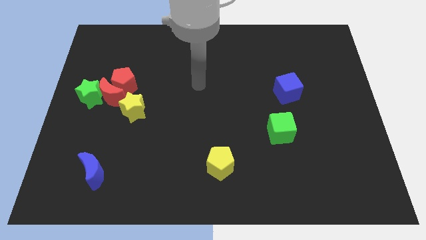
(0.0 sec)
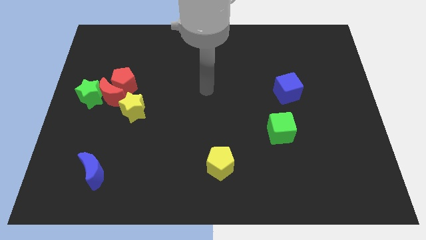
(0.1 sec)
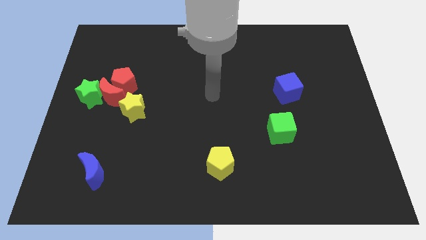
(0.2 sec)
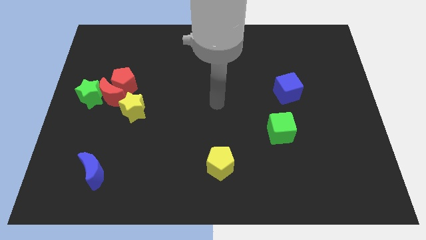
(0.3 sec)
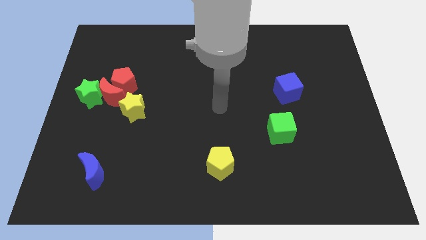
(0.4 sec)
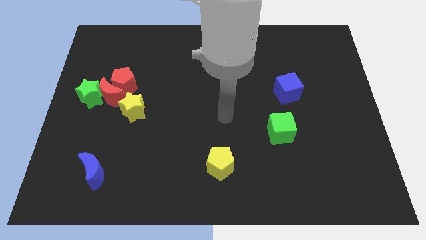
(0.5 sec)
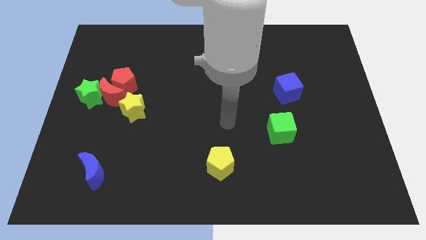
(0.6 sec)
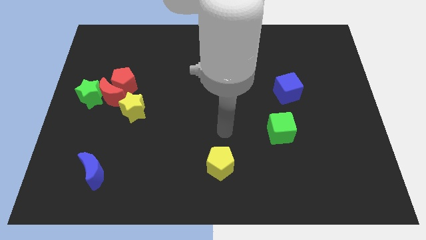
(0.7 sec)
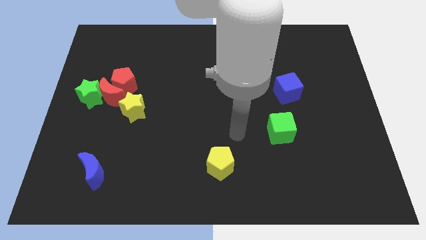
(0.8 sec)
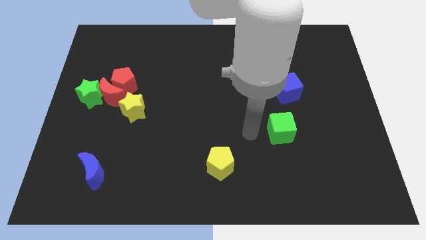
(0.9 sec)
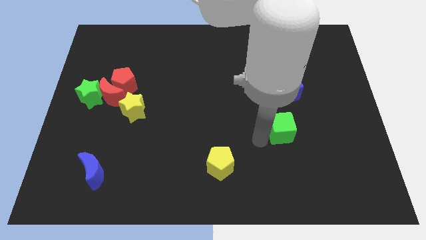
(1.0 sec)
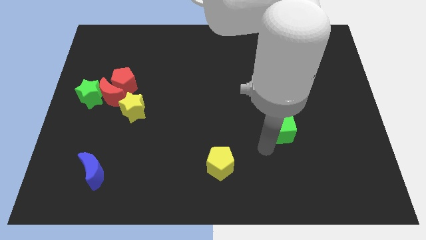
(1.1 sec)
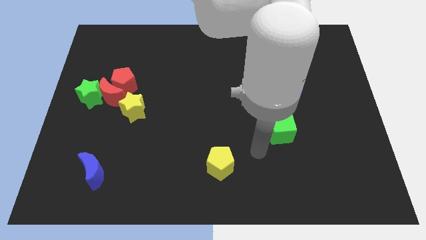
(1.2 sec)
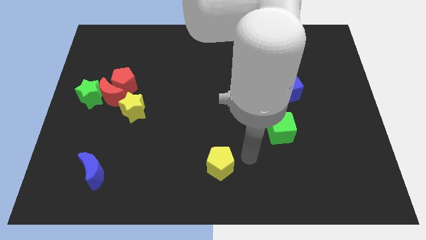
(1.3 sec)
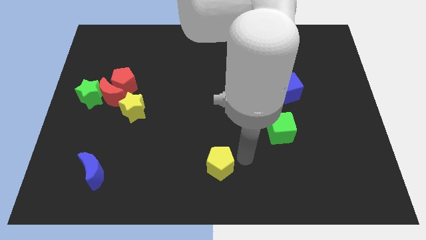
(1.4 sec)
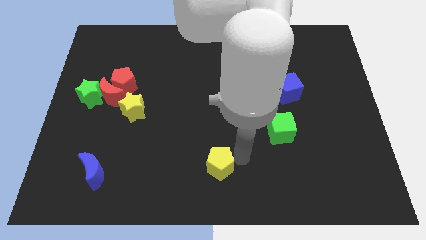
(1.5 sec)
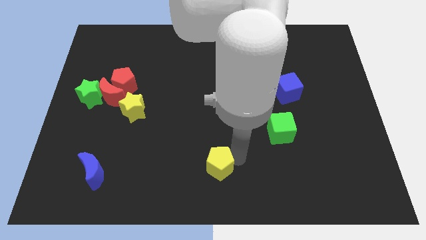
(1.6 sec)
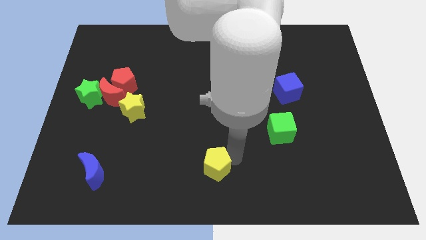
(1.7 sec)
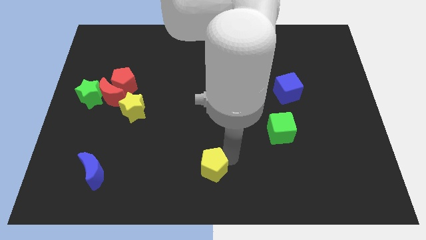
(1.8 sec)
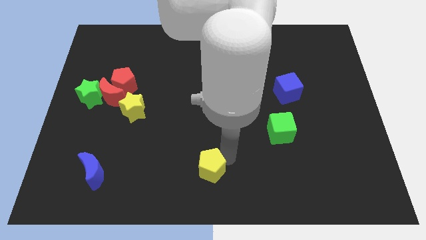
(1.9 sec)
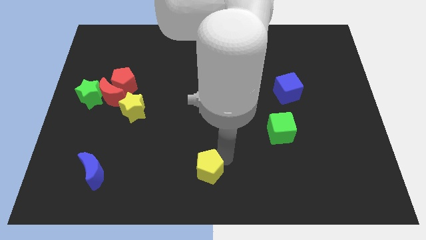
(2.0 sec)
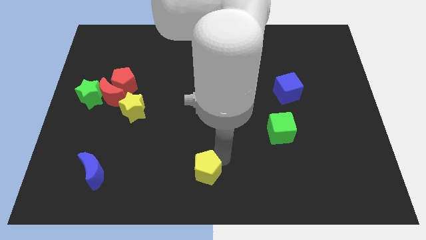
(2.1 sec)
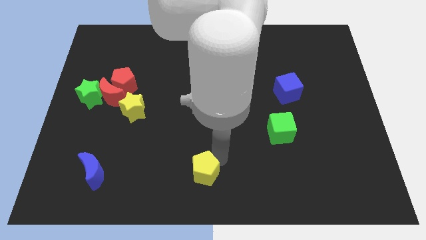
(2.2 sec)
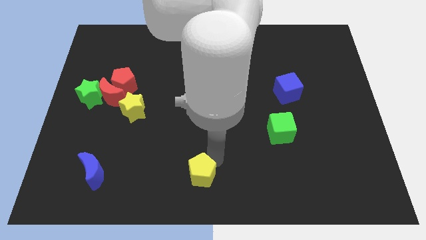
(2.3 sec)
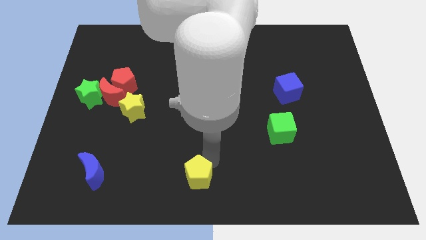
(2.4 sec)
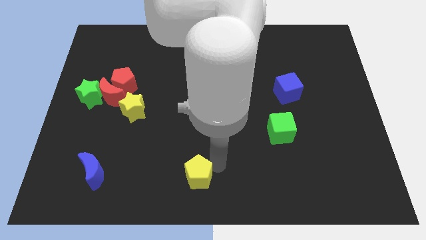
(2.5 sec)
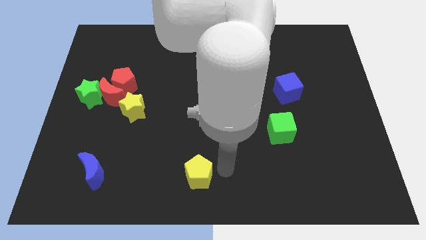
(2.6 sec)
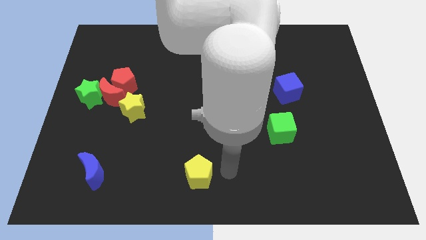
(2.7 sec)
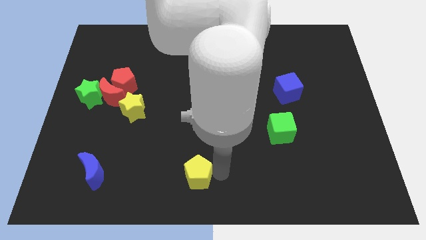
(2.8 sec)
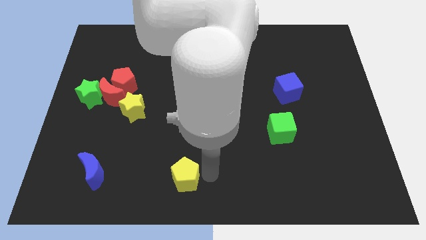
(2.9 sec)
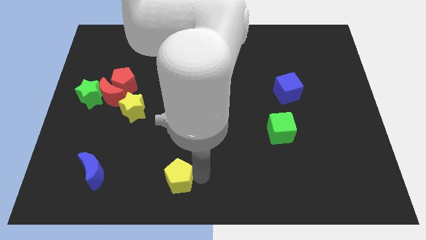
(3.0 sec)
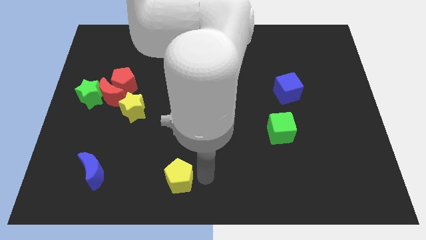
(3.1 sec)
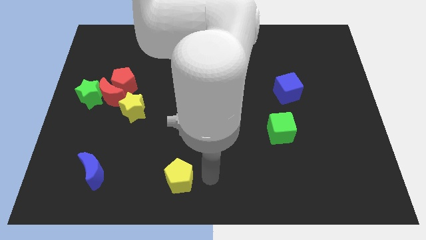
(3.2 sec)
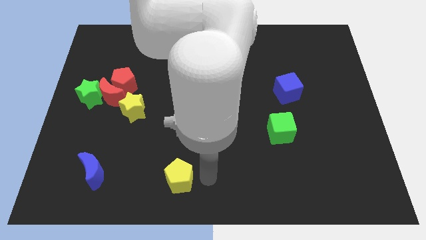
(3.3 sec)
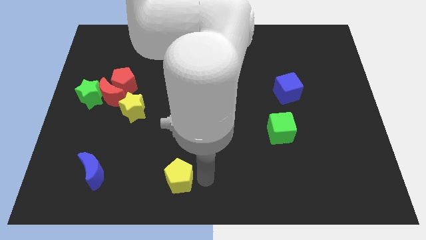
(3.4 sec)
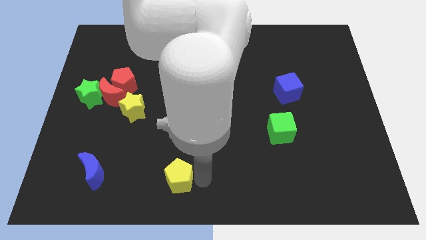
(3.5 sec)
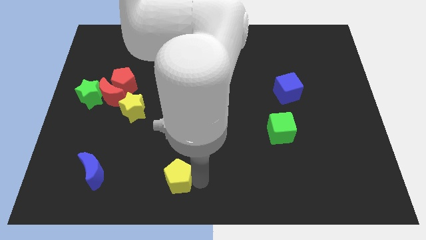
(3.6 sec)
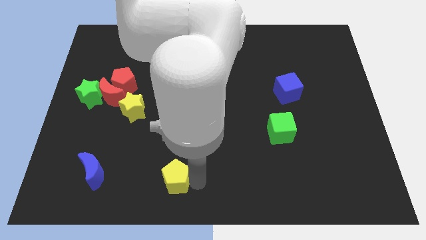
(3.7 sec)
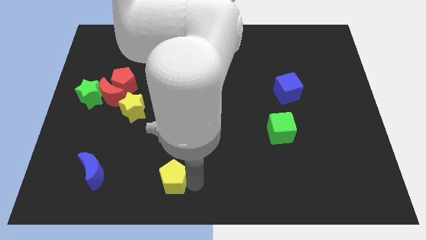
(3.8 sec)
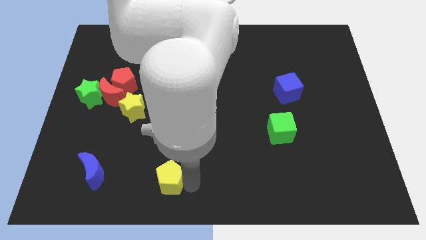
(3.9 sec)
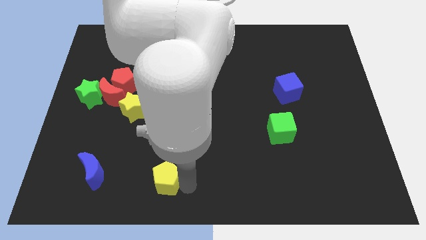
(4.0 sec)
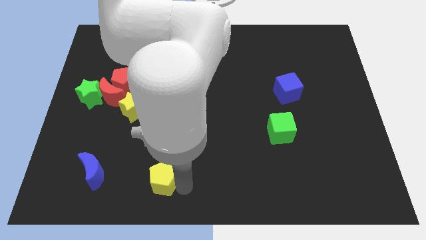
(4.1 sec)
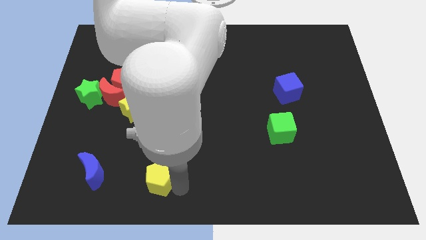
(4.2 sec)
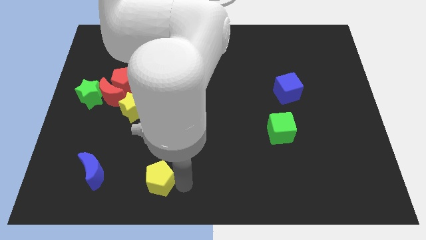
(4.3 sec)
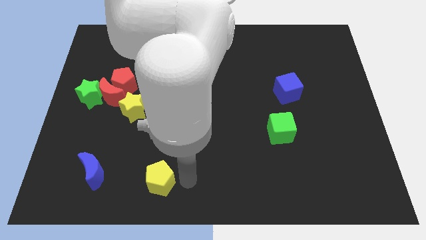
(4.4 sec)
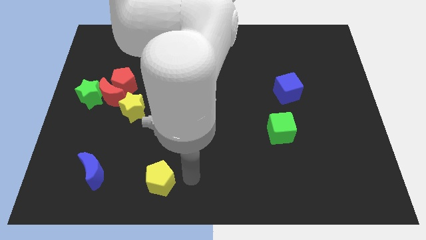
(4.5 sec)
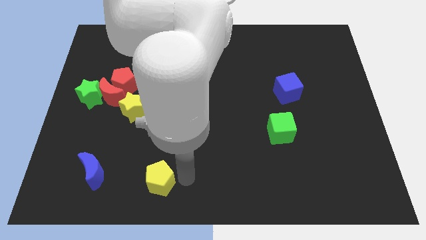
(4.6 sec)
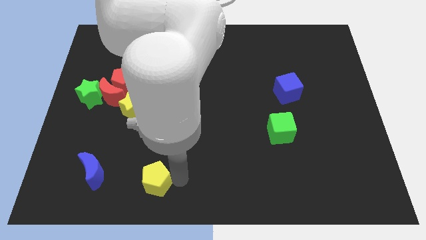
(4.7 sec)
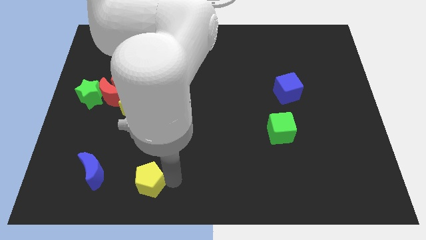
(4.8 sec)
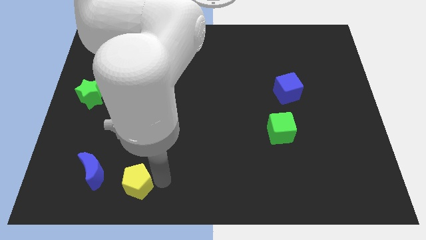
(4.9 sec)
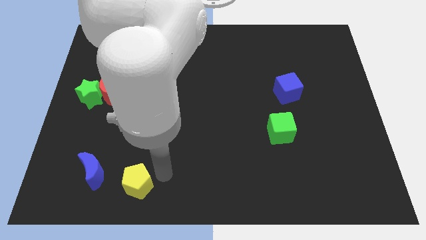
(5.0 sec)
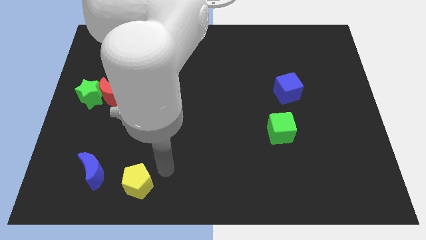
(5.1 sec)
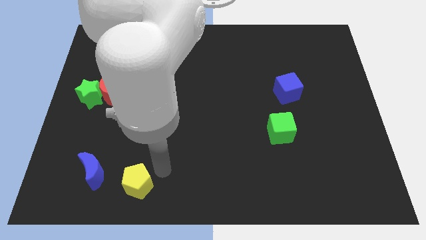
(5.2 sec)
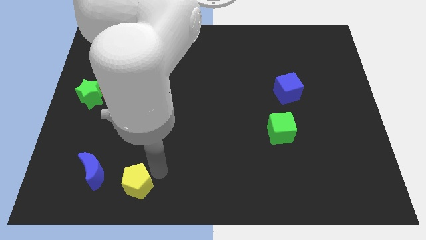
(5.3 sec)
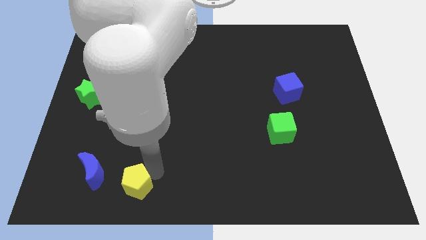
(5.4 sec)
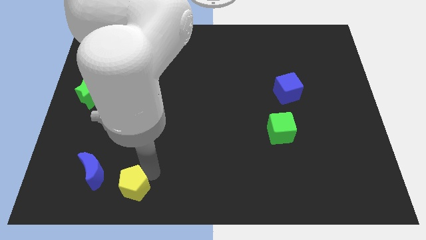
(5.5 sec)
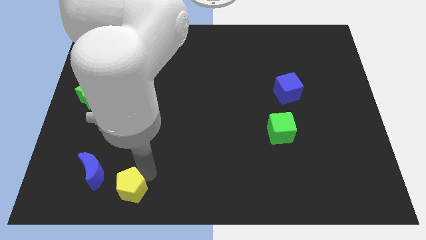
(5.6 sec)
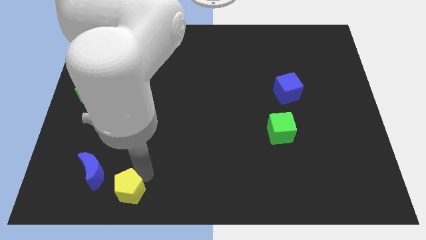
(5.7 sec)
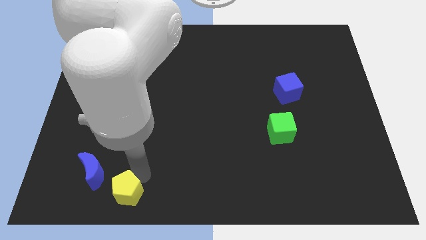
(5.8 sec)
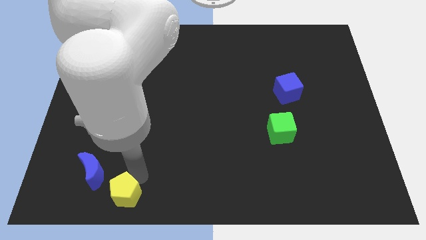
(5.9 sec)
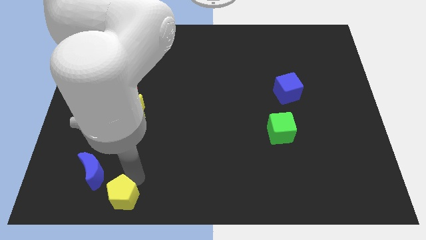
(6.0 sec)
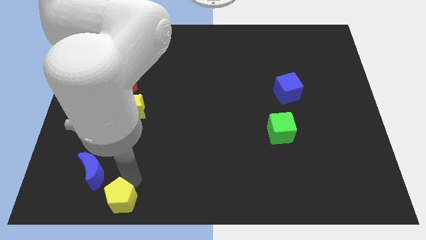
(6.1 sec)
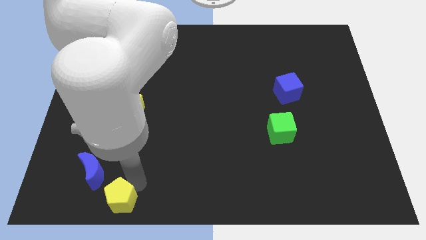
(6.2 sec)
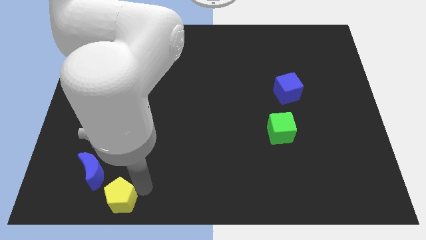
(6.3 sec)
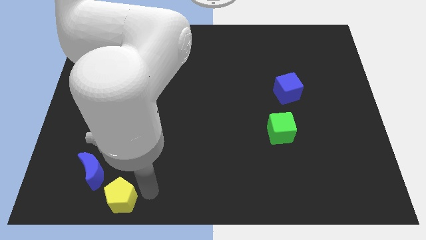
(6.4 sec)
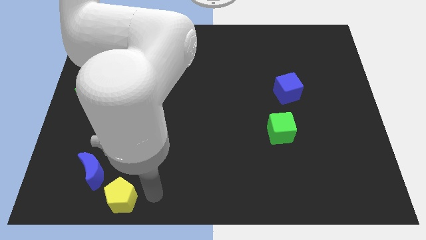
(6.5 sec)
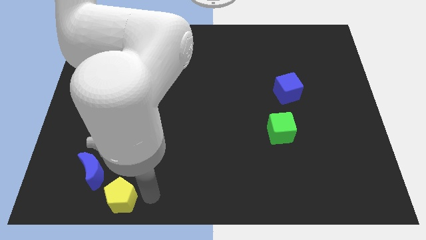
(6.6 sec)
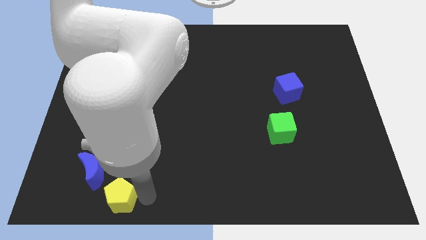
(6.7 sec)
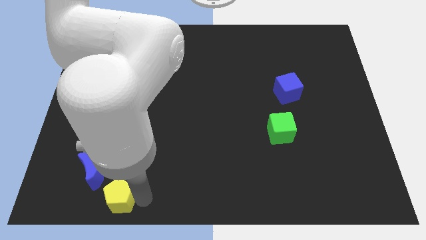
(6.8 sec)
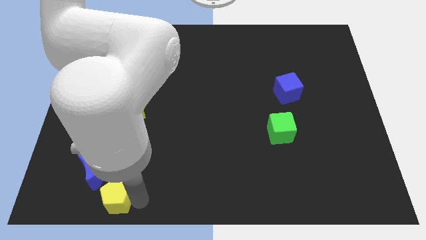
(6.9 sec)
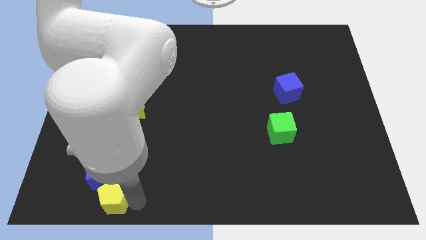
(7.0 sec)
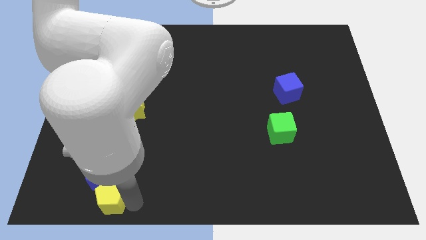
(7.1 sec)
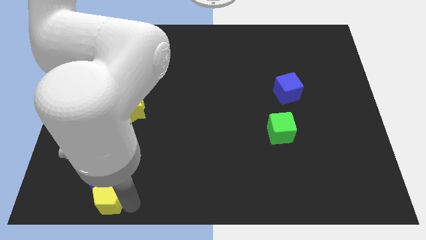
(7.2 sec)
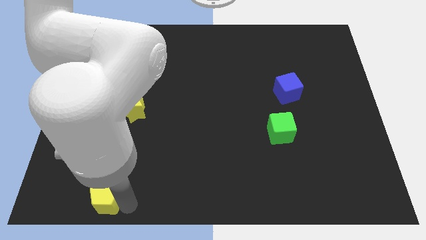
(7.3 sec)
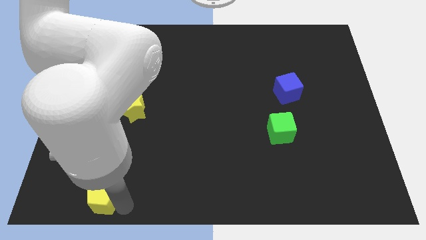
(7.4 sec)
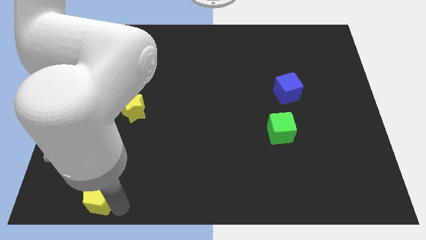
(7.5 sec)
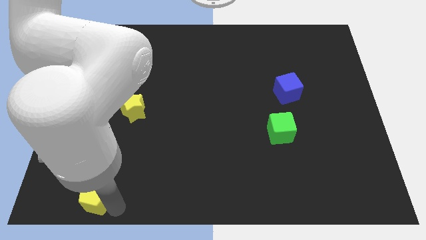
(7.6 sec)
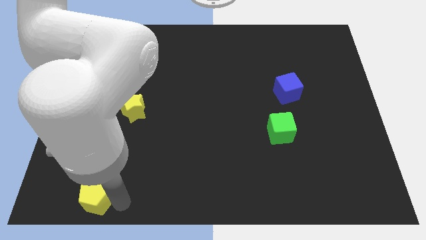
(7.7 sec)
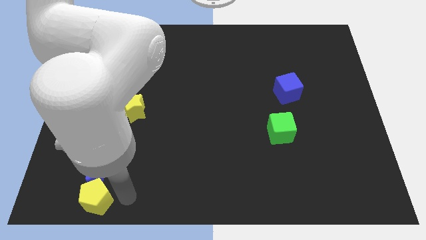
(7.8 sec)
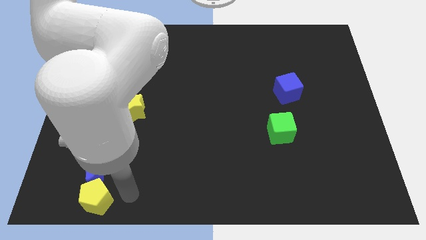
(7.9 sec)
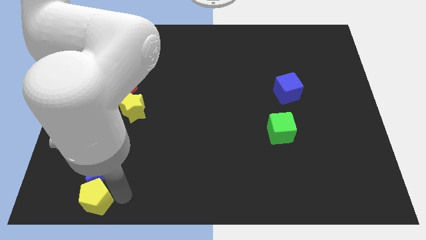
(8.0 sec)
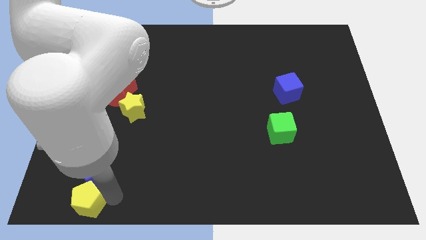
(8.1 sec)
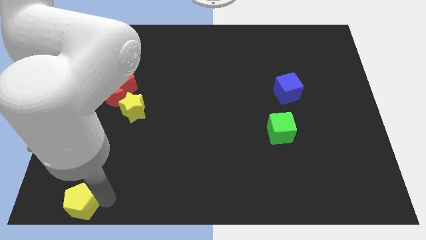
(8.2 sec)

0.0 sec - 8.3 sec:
move the yellow pentagon to the bottom left corner
